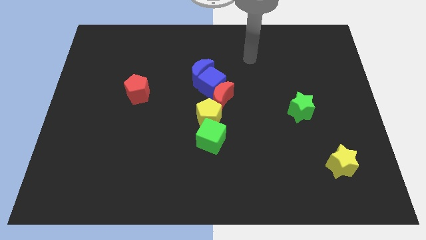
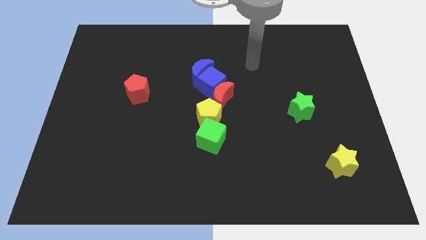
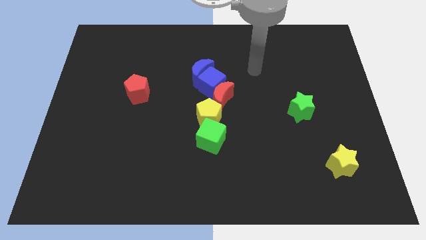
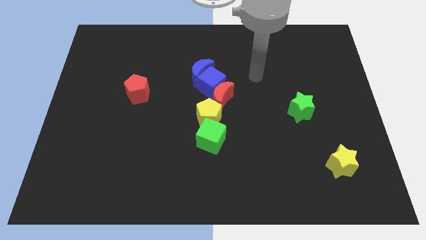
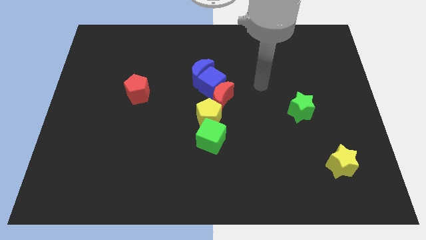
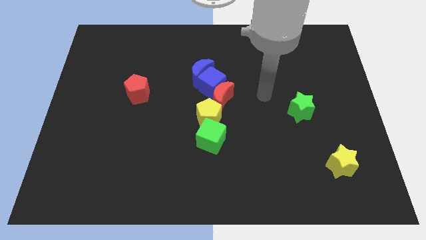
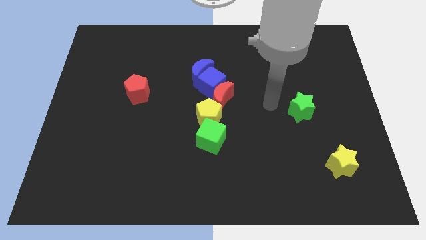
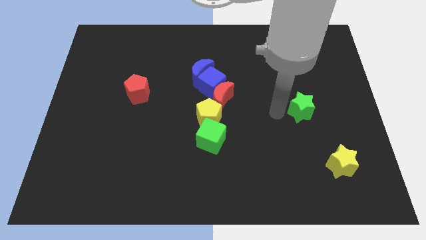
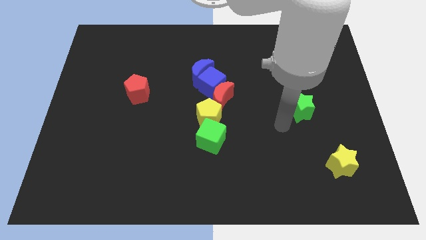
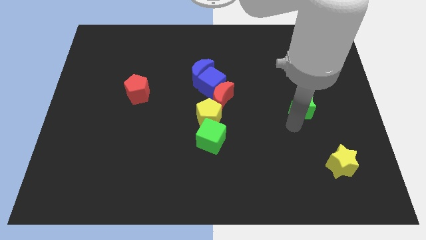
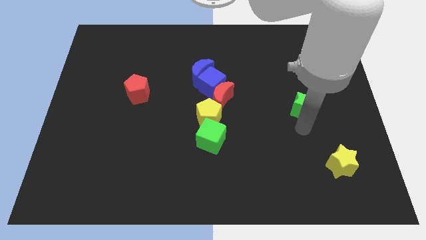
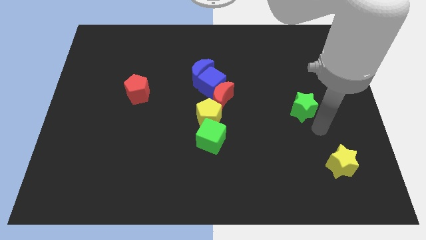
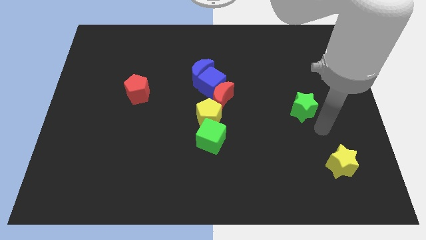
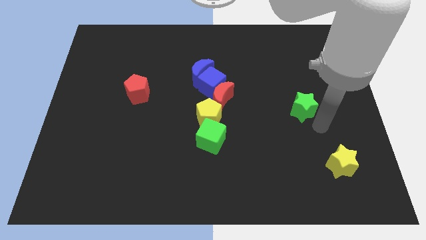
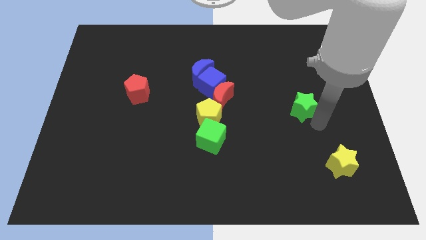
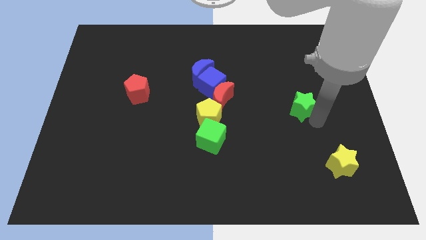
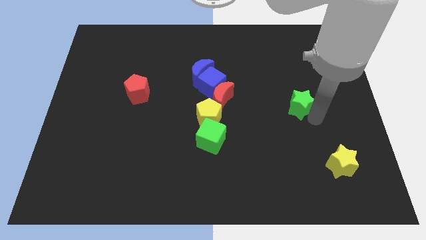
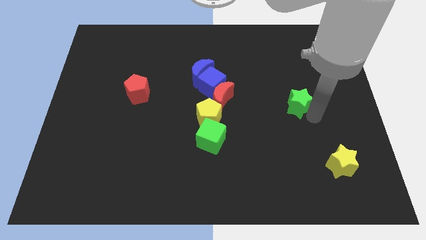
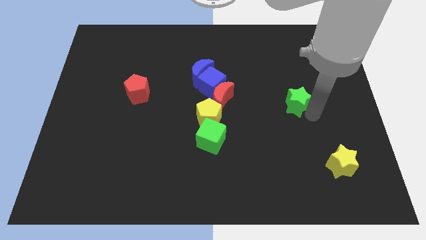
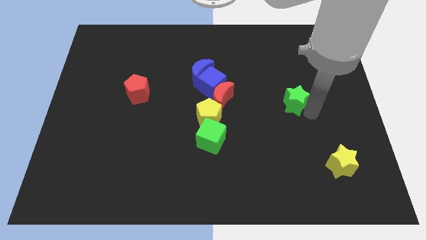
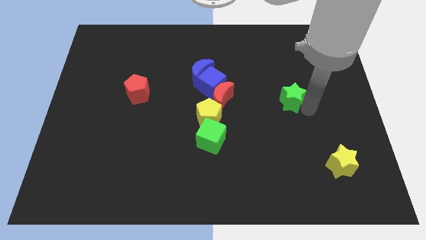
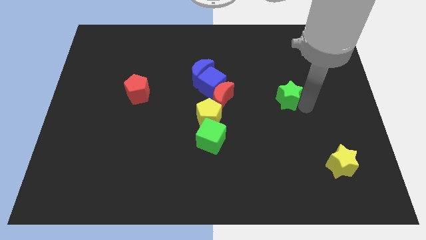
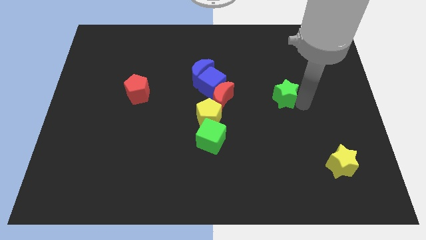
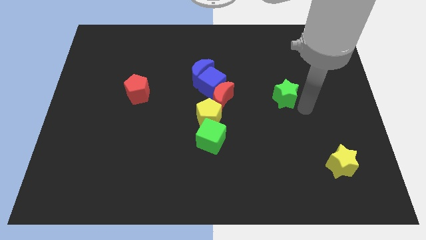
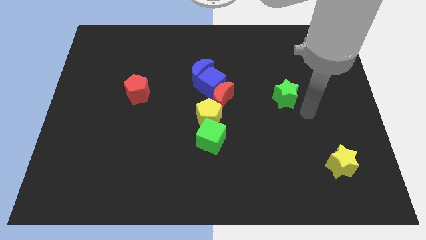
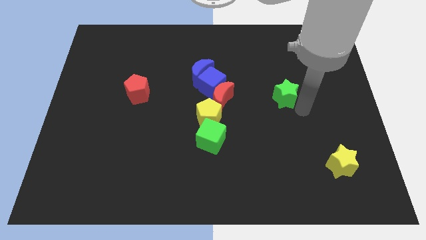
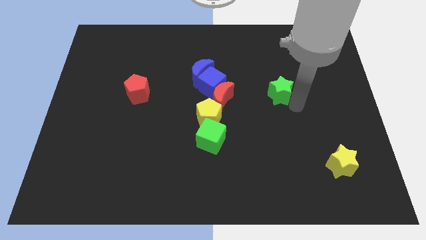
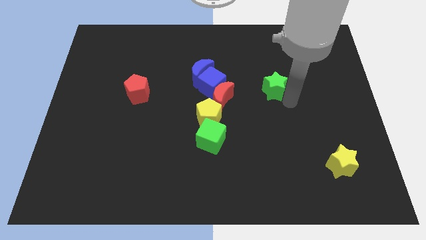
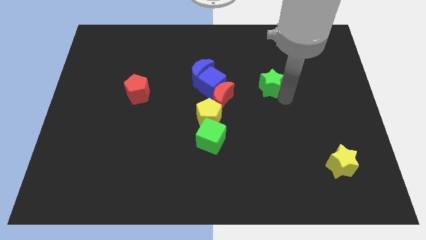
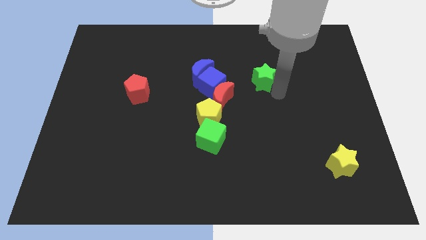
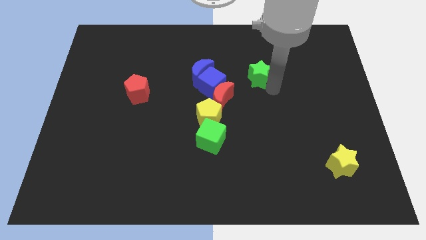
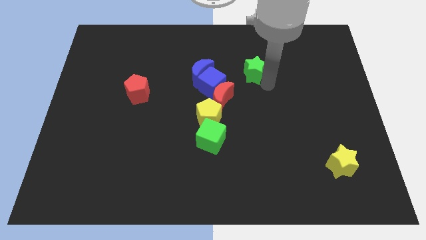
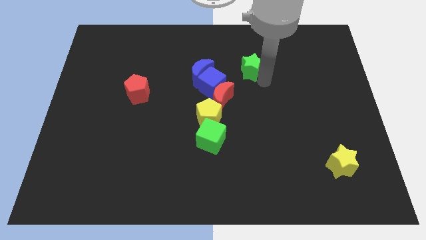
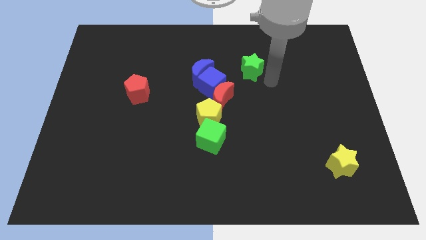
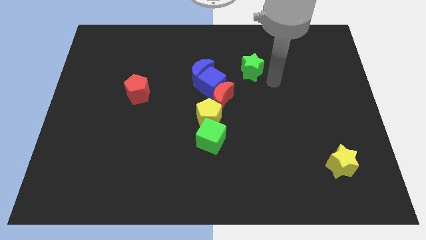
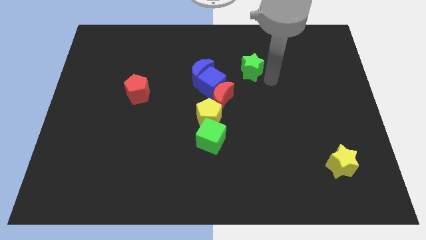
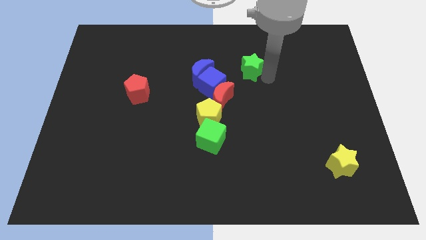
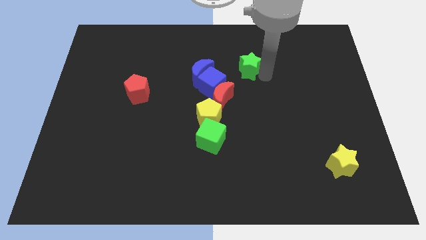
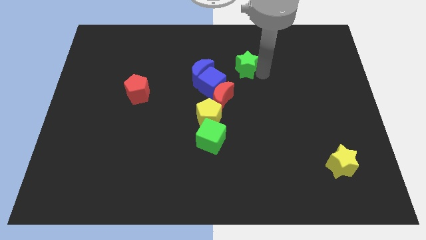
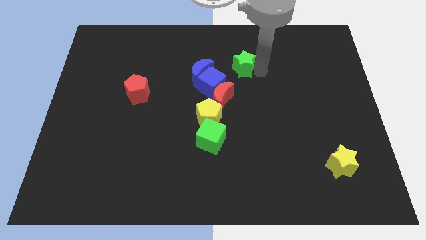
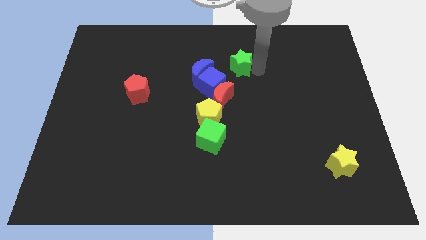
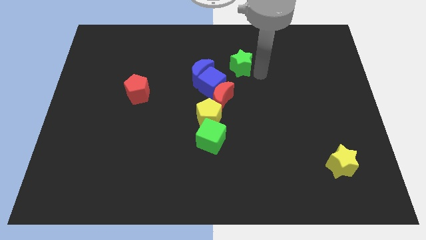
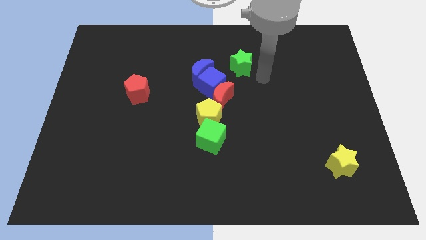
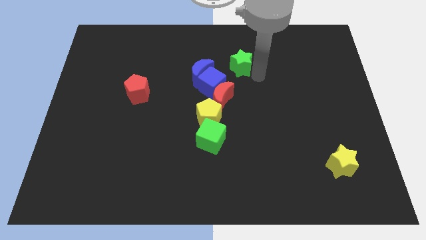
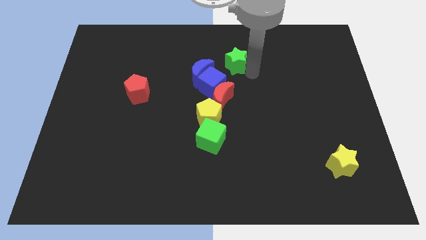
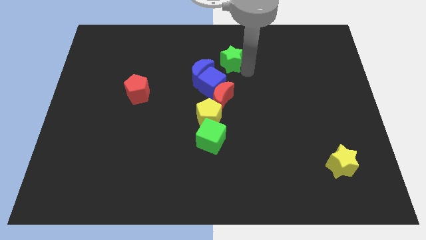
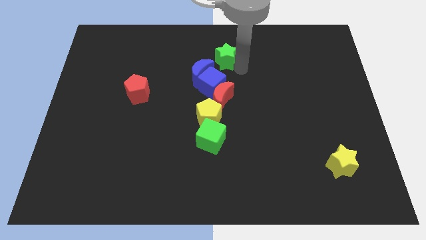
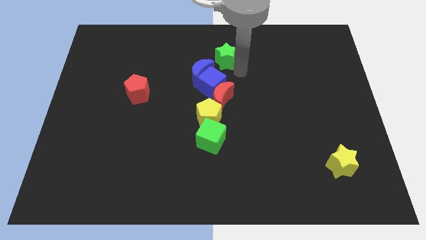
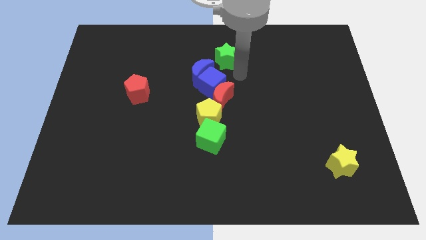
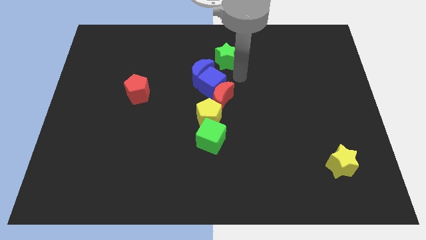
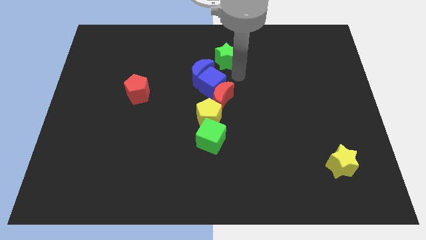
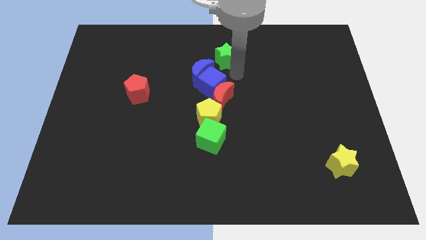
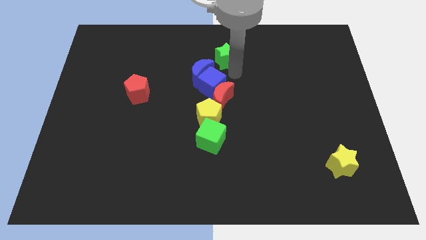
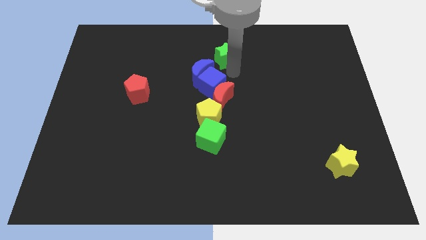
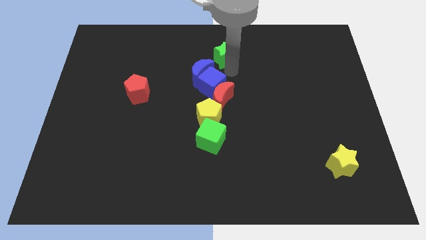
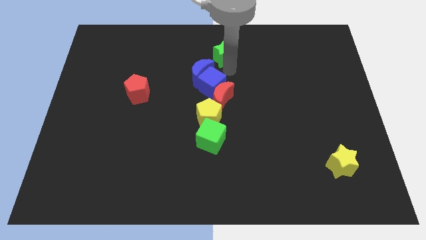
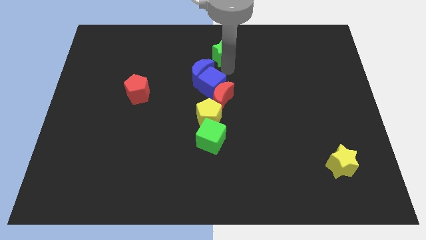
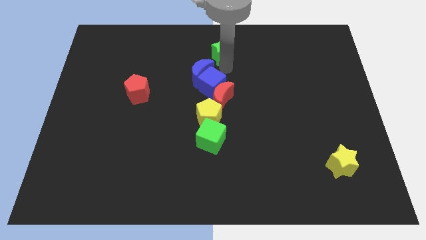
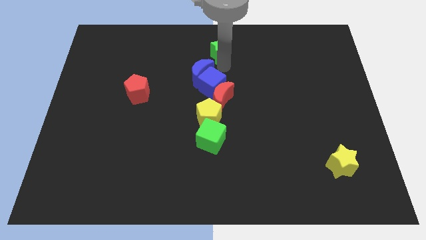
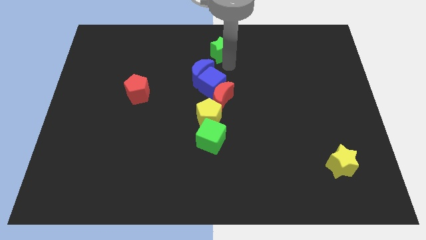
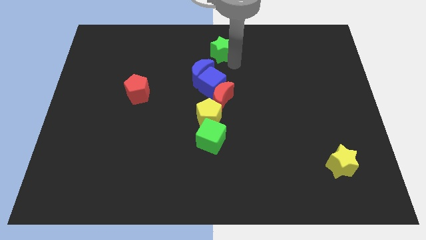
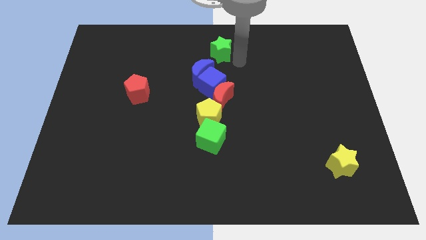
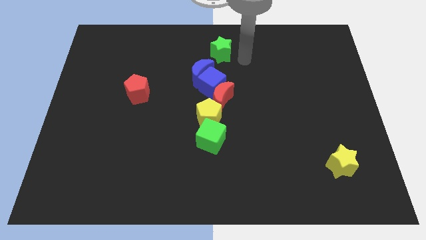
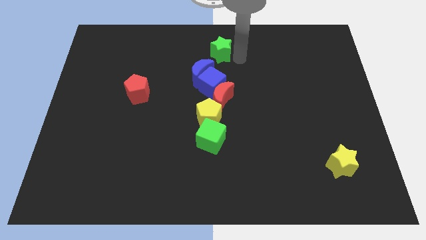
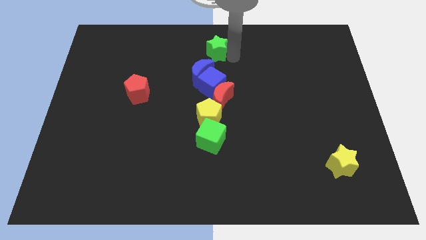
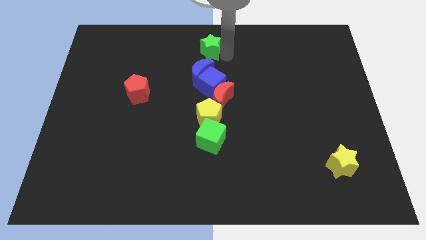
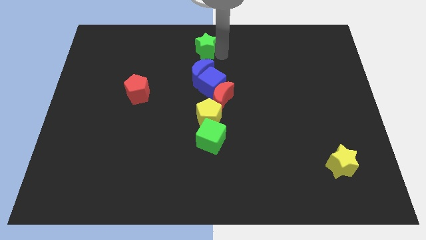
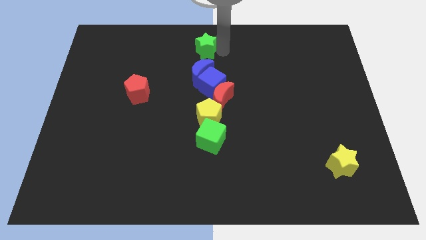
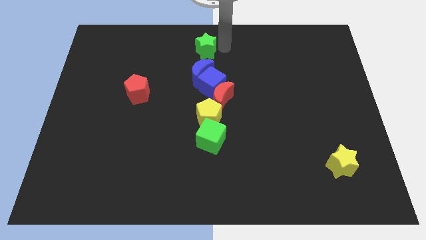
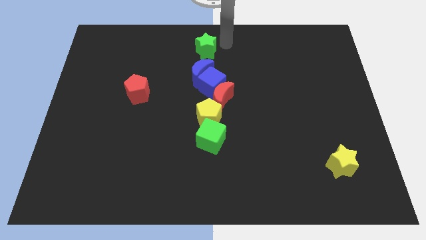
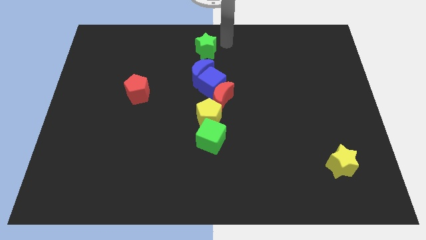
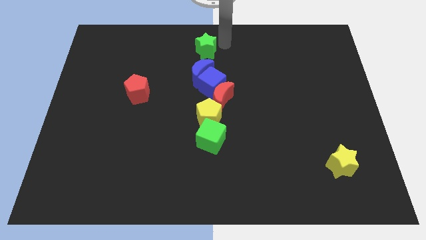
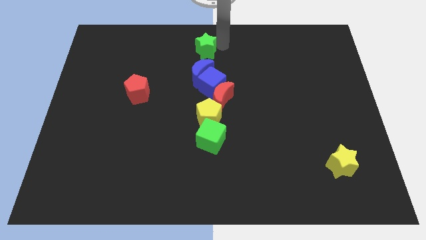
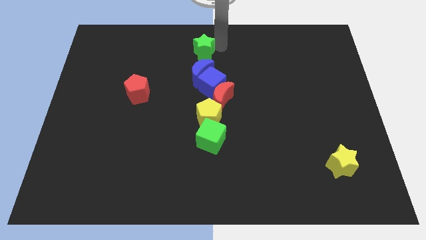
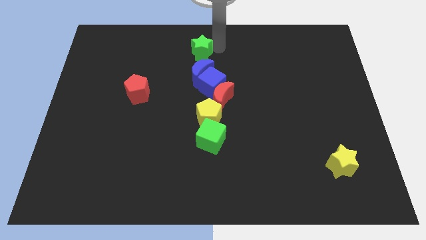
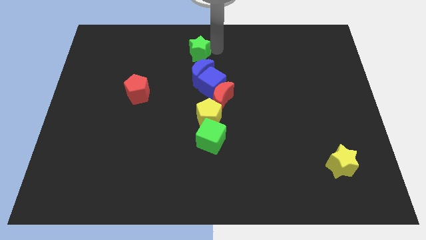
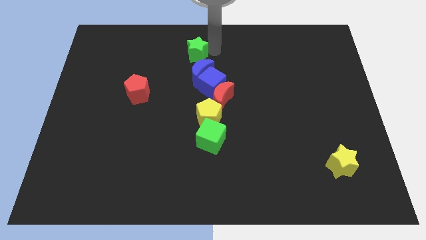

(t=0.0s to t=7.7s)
push the green star to the top left of the blue moon

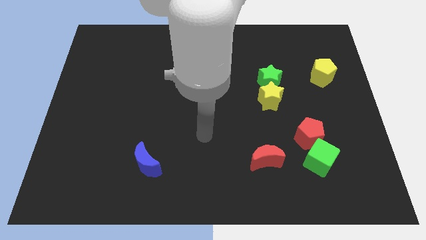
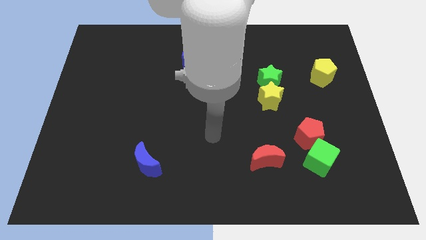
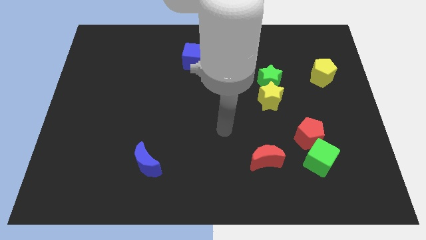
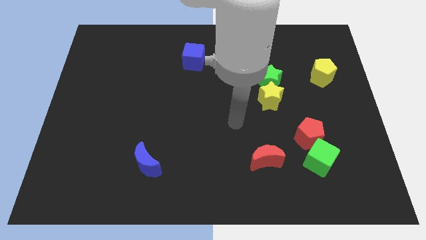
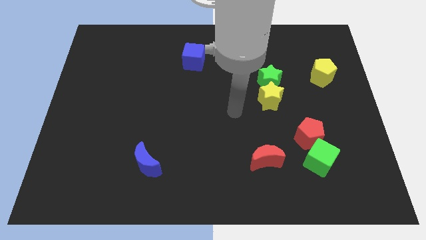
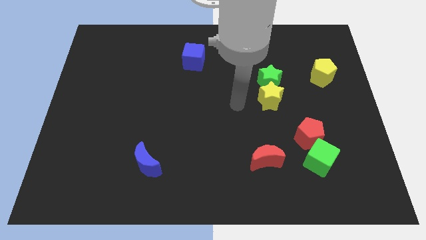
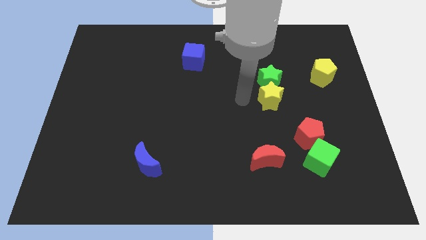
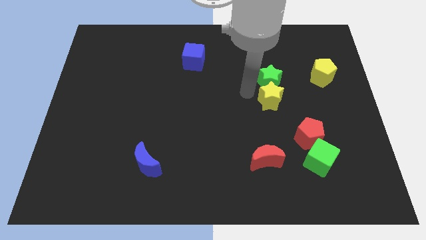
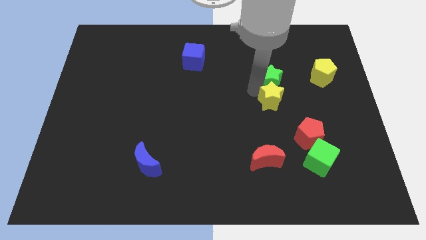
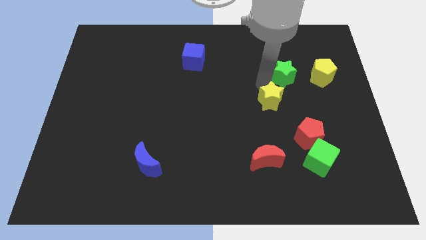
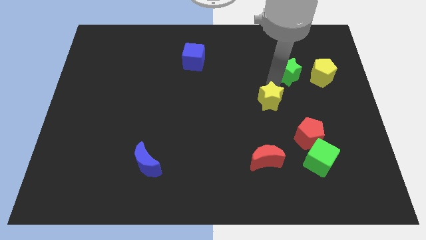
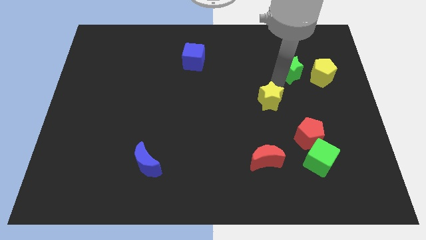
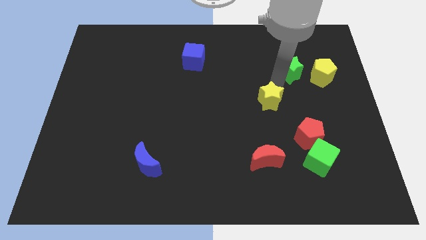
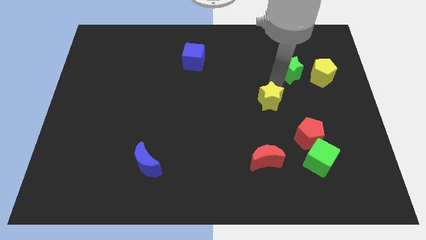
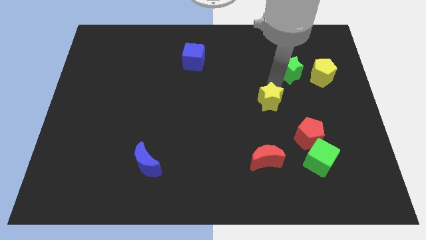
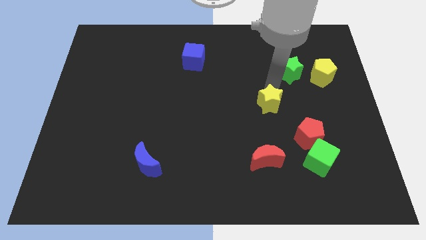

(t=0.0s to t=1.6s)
slide the yellow star above the red moon
